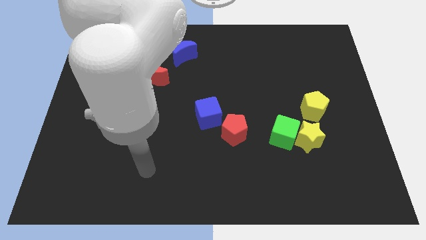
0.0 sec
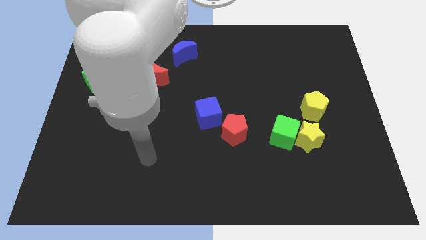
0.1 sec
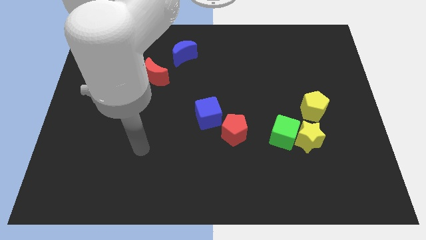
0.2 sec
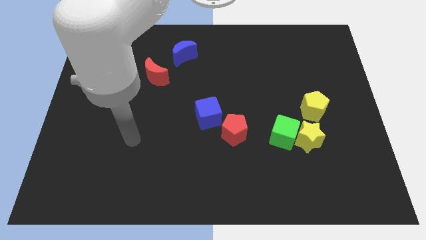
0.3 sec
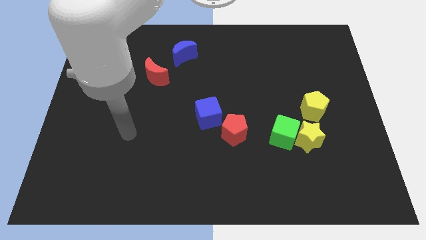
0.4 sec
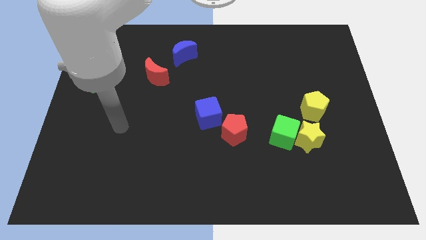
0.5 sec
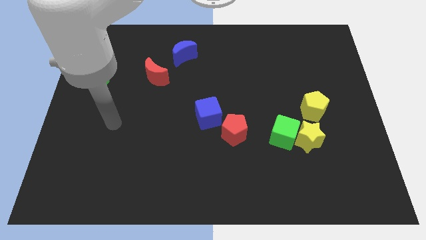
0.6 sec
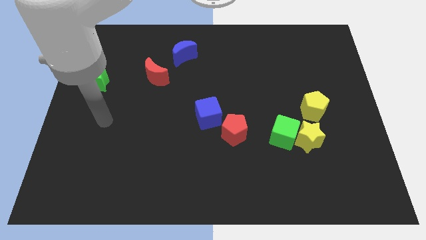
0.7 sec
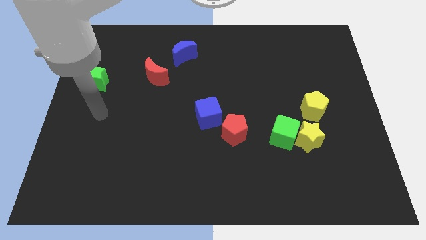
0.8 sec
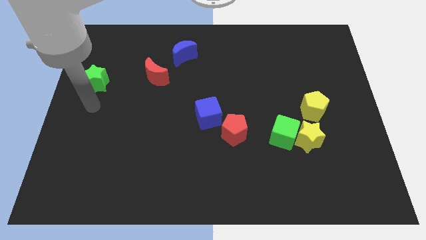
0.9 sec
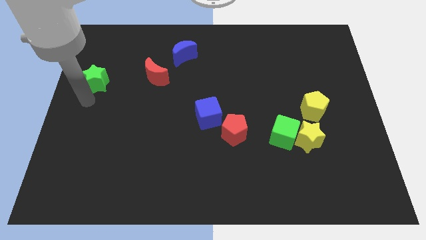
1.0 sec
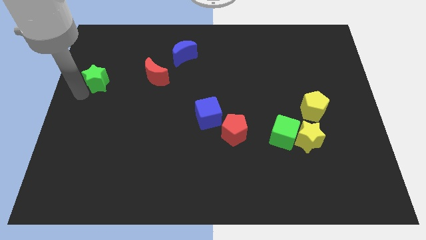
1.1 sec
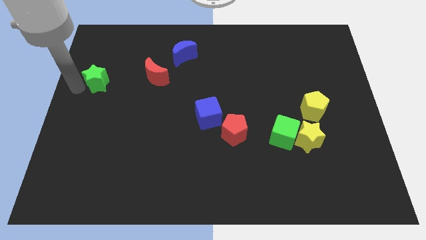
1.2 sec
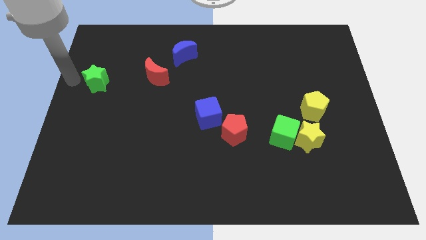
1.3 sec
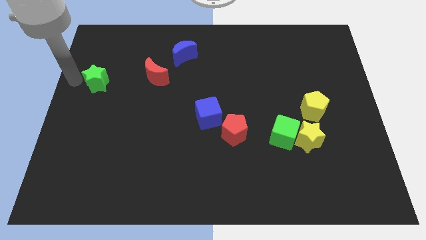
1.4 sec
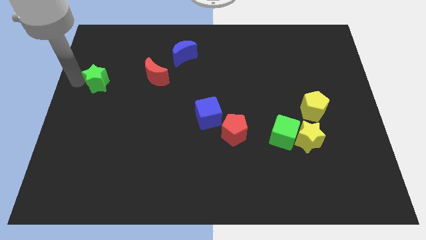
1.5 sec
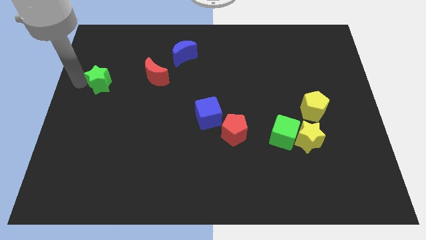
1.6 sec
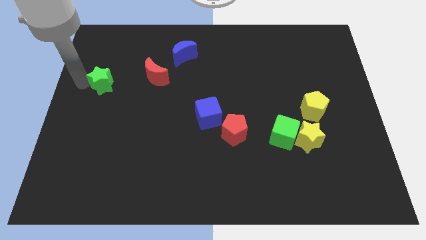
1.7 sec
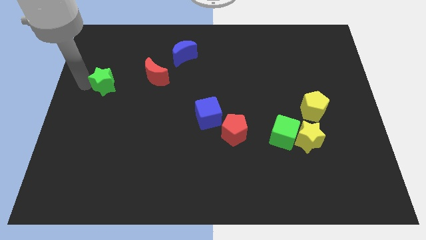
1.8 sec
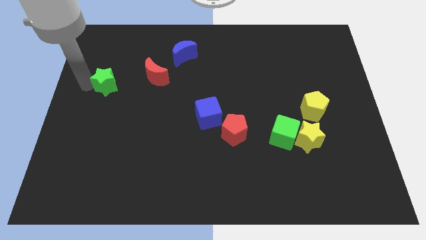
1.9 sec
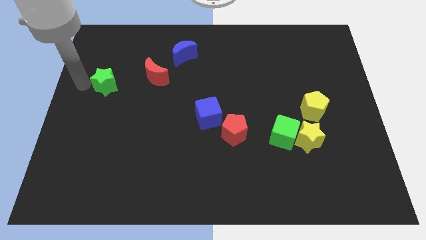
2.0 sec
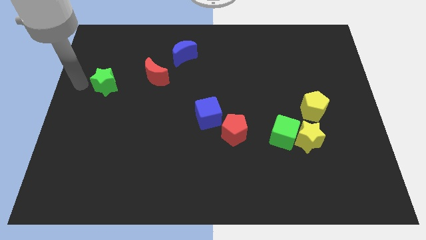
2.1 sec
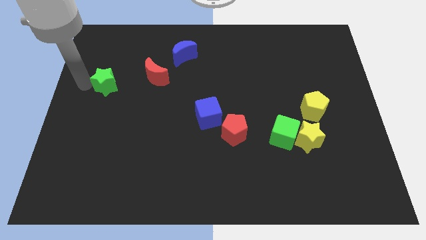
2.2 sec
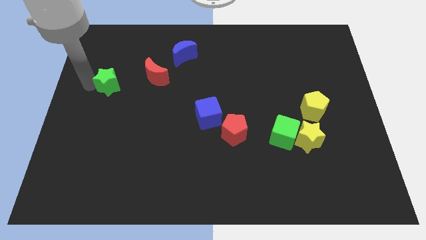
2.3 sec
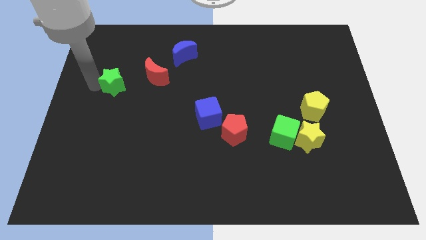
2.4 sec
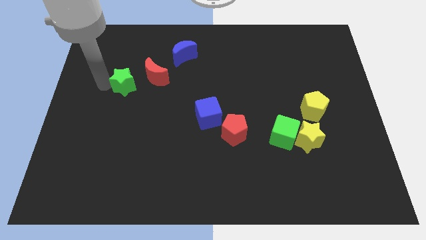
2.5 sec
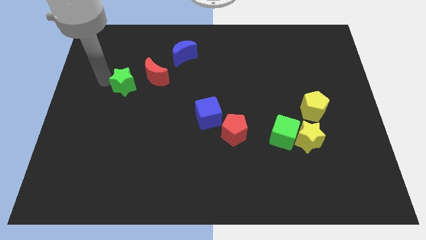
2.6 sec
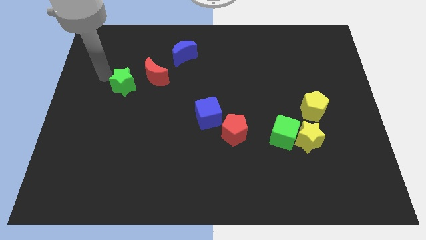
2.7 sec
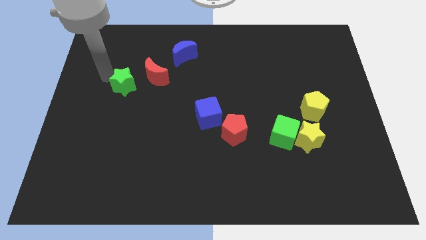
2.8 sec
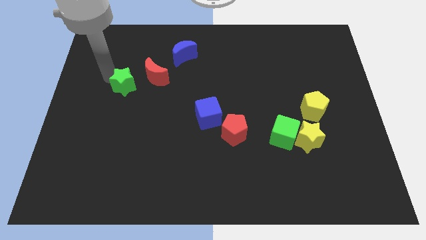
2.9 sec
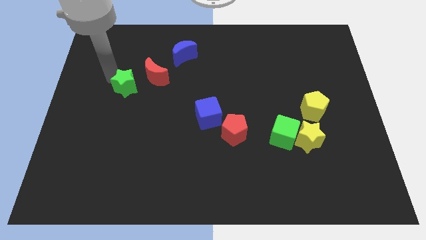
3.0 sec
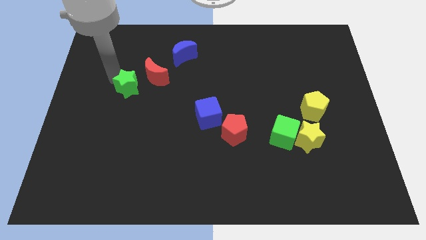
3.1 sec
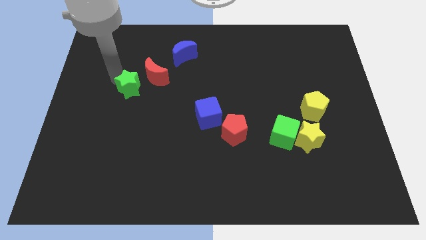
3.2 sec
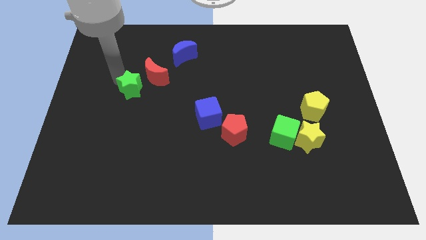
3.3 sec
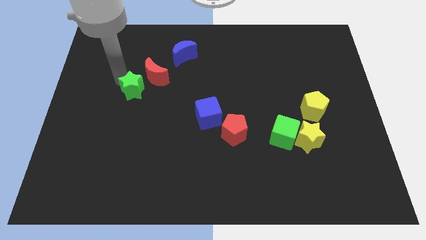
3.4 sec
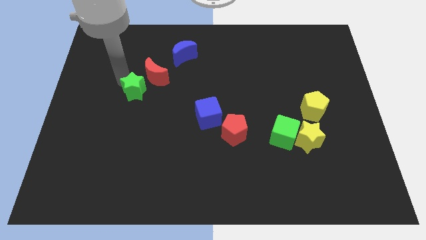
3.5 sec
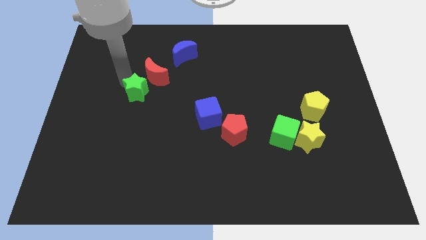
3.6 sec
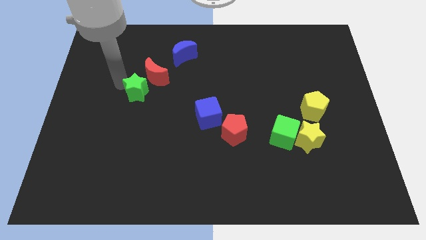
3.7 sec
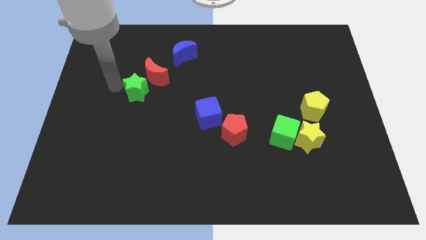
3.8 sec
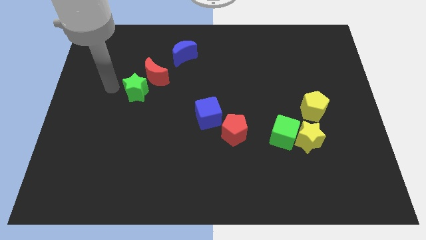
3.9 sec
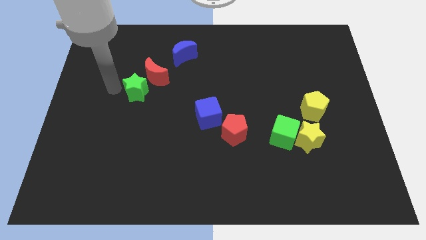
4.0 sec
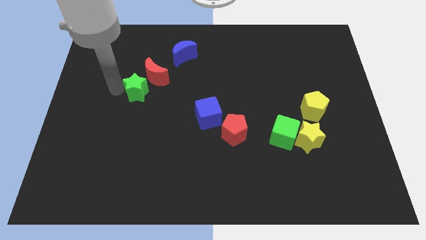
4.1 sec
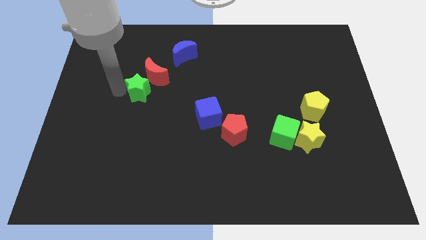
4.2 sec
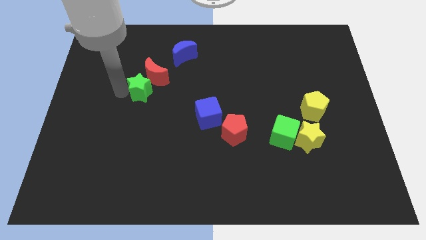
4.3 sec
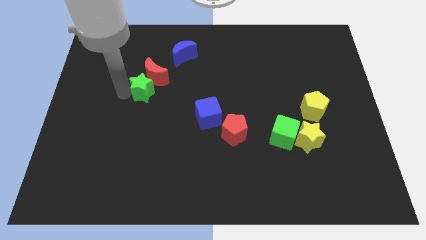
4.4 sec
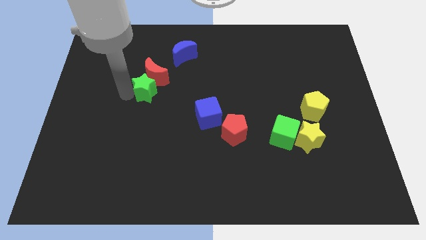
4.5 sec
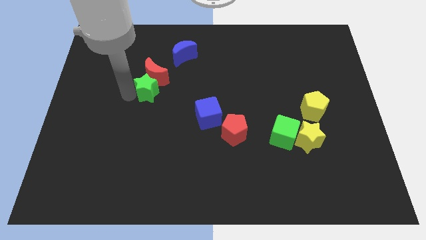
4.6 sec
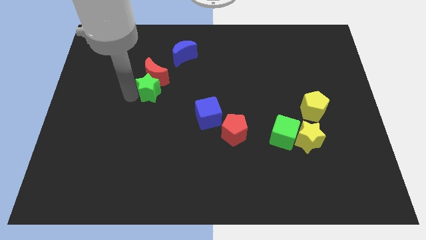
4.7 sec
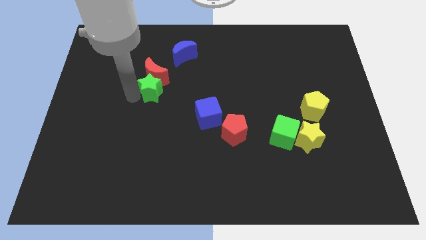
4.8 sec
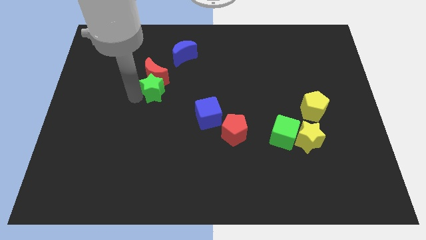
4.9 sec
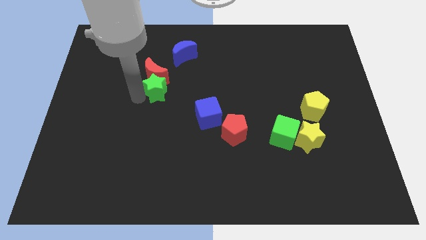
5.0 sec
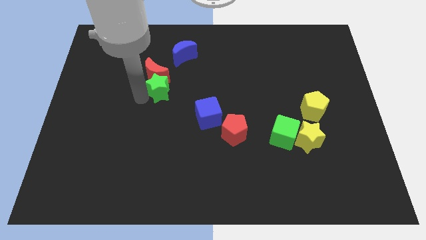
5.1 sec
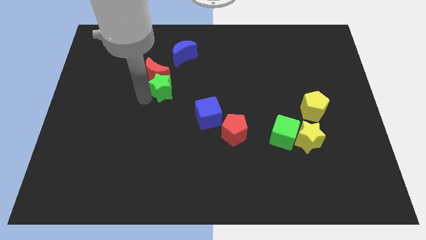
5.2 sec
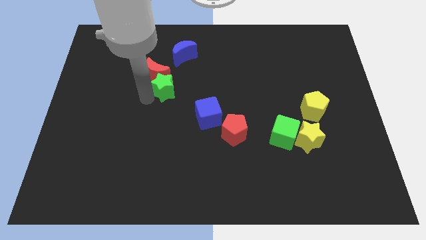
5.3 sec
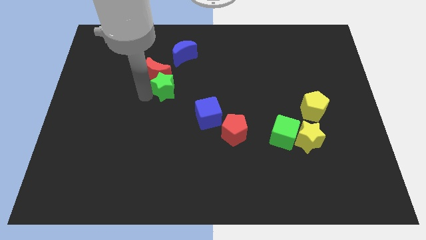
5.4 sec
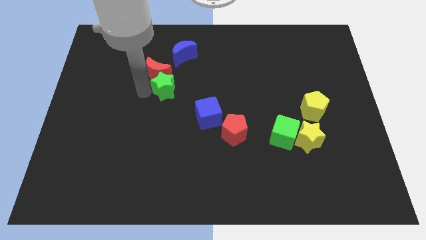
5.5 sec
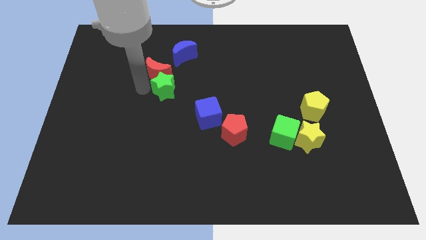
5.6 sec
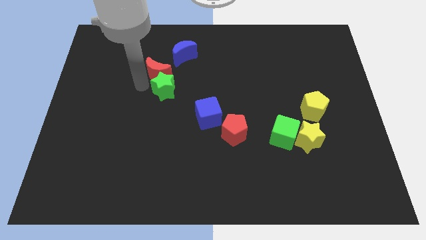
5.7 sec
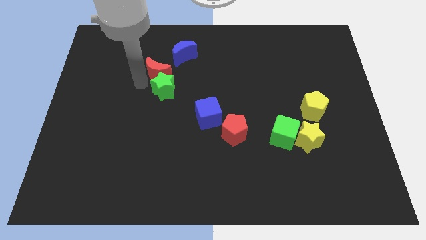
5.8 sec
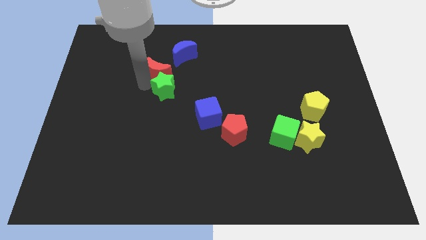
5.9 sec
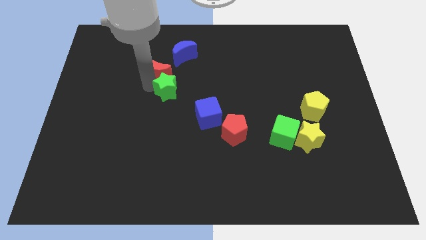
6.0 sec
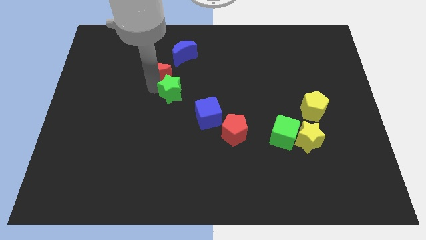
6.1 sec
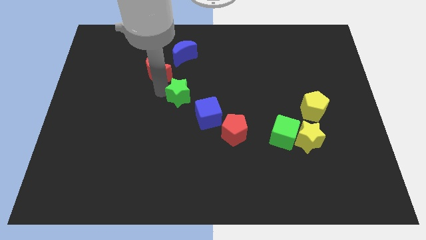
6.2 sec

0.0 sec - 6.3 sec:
push the green star to the right

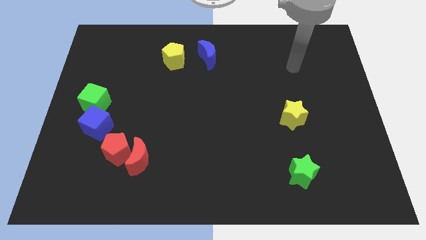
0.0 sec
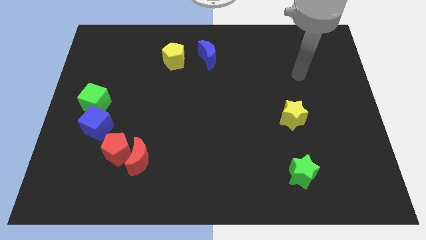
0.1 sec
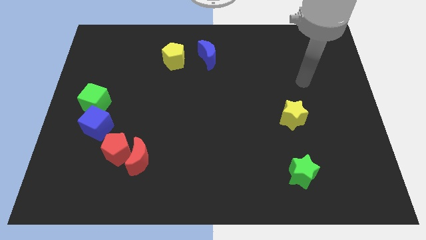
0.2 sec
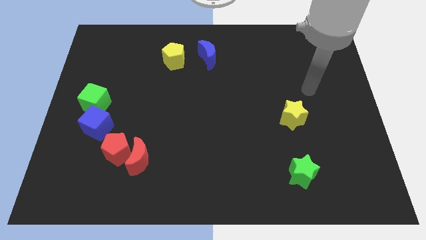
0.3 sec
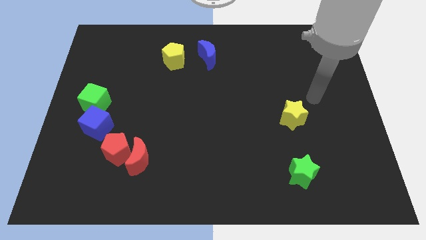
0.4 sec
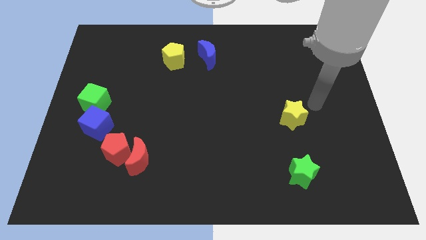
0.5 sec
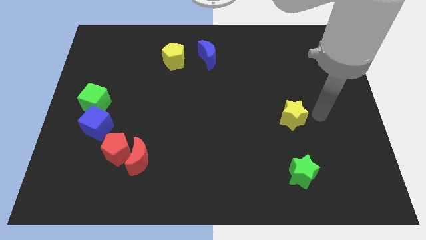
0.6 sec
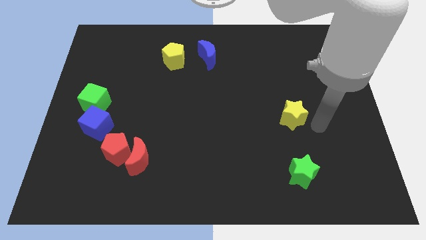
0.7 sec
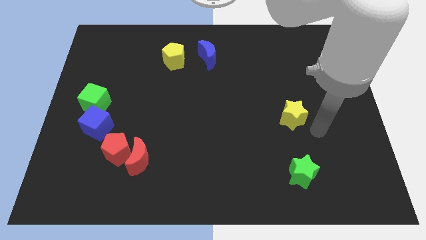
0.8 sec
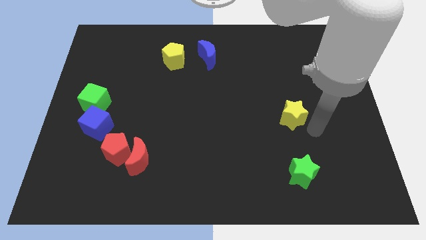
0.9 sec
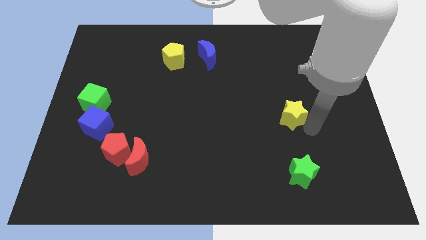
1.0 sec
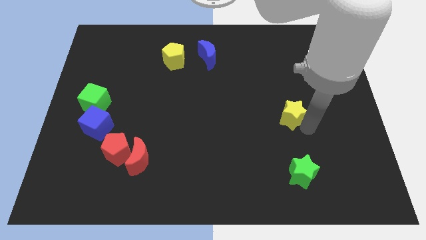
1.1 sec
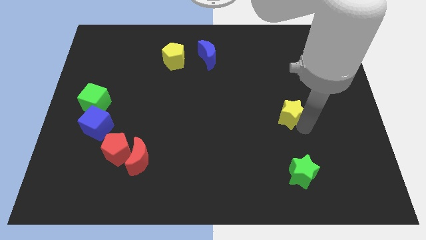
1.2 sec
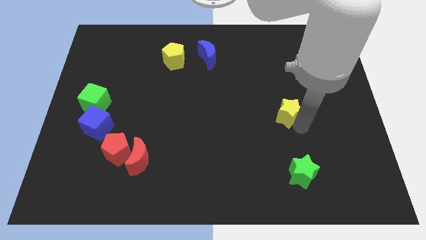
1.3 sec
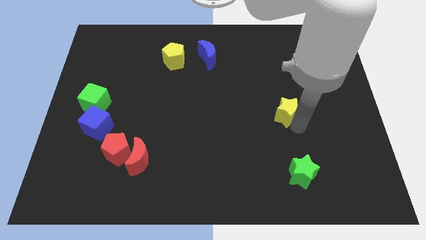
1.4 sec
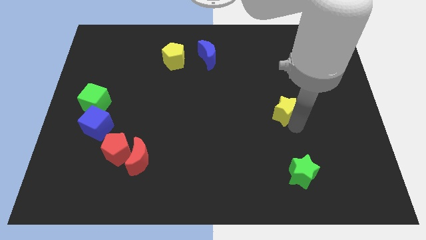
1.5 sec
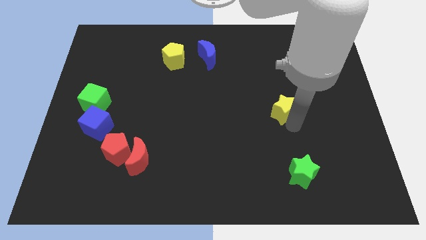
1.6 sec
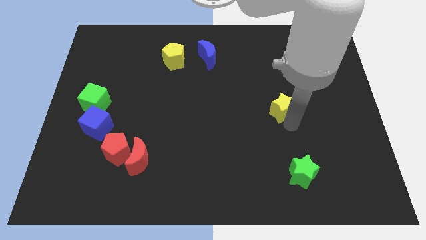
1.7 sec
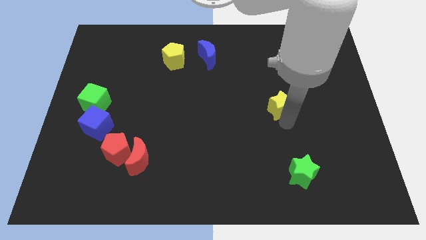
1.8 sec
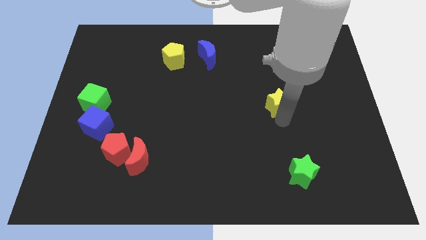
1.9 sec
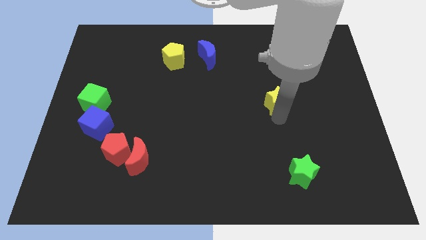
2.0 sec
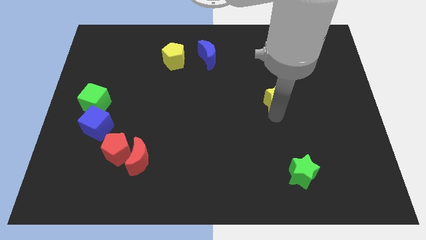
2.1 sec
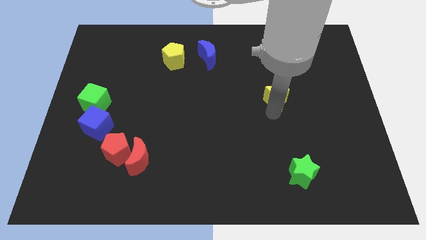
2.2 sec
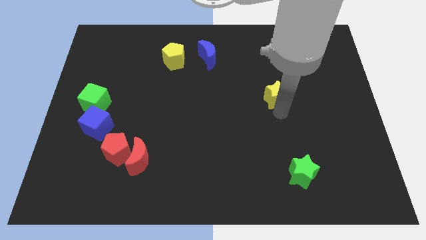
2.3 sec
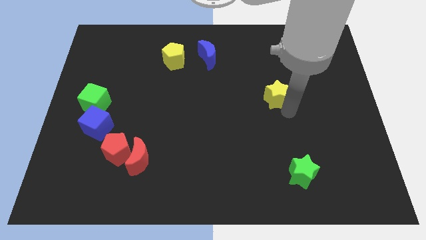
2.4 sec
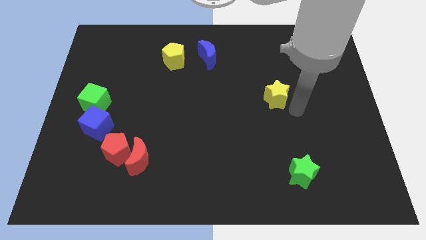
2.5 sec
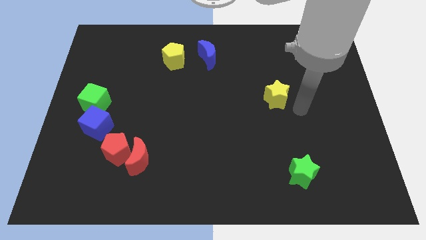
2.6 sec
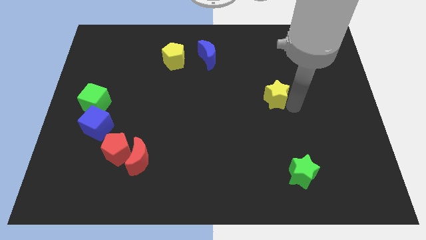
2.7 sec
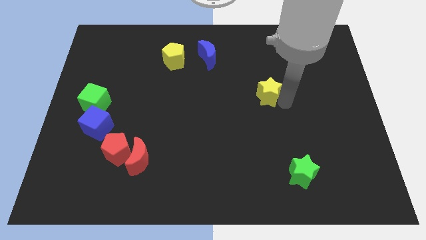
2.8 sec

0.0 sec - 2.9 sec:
slightly slide the yellow star diagonally up and to the left
